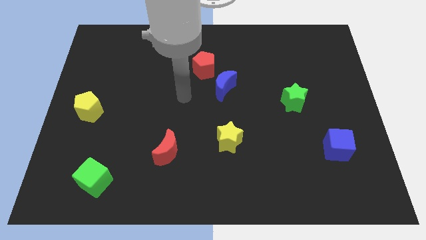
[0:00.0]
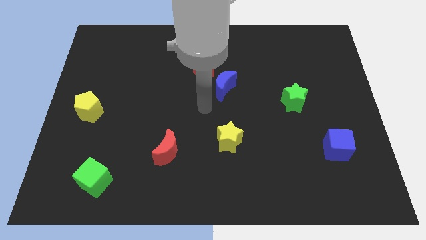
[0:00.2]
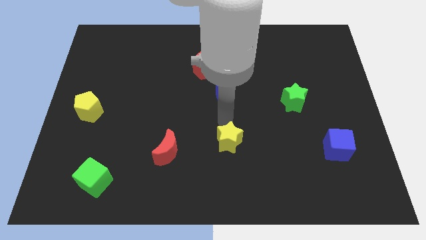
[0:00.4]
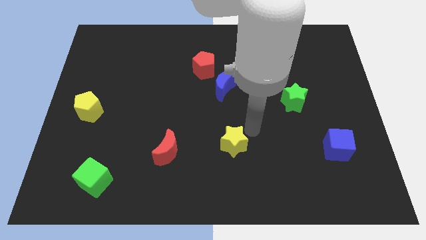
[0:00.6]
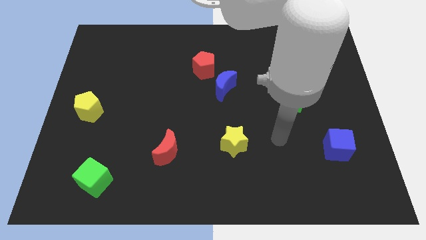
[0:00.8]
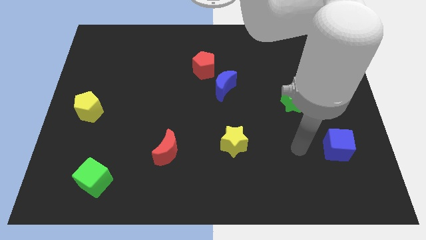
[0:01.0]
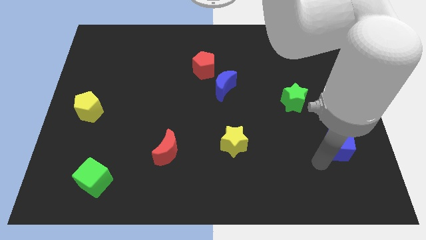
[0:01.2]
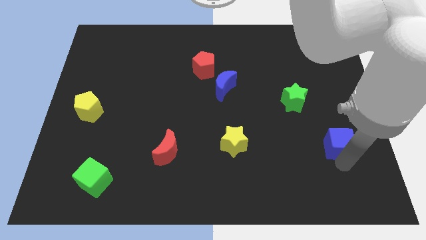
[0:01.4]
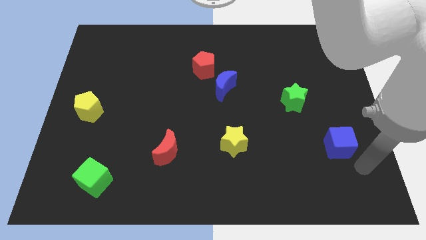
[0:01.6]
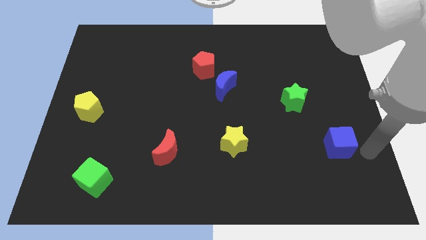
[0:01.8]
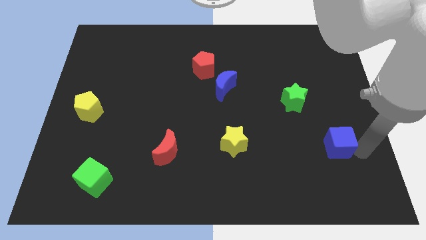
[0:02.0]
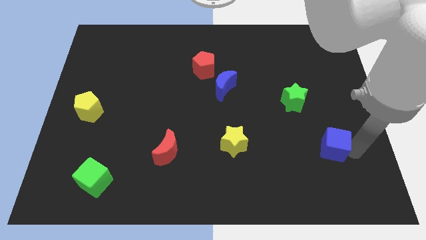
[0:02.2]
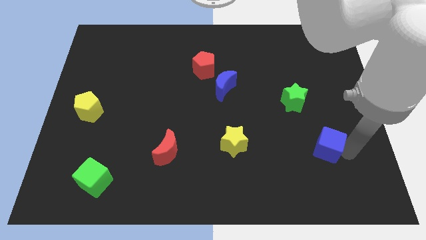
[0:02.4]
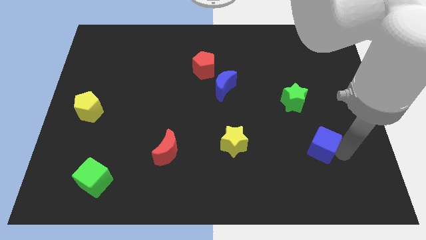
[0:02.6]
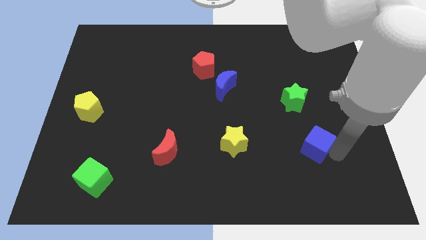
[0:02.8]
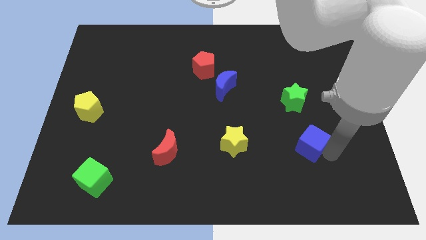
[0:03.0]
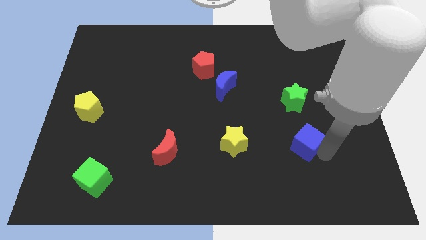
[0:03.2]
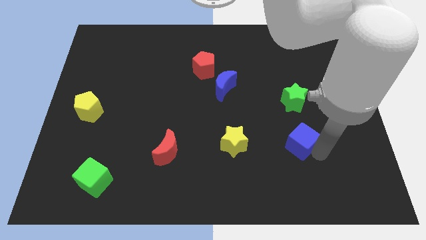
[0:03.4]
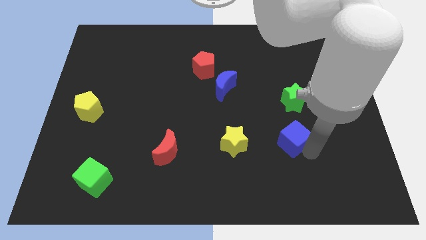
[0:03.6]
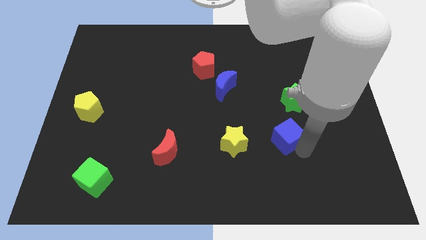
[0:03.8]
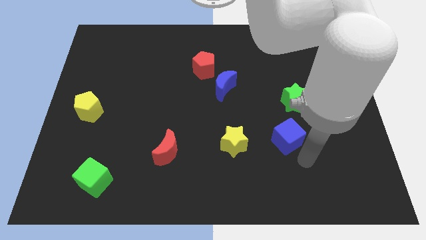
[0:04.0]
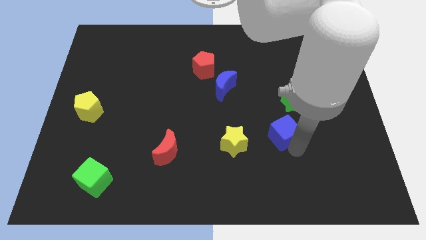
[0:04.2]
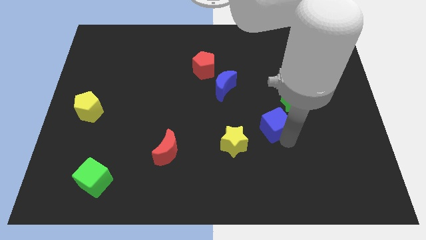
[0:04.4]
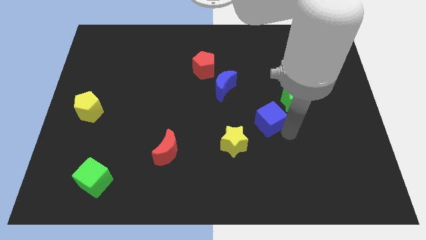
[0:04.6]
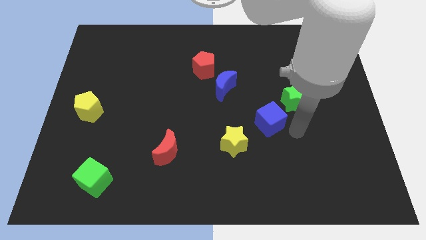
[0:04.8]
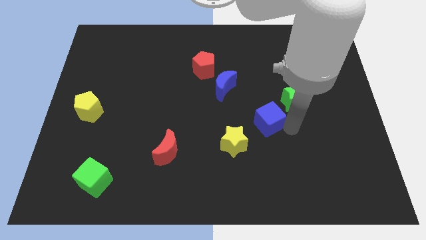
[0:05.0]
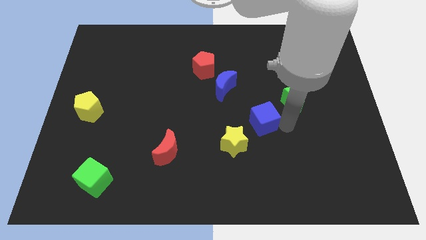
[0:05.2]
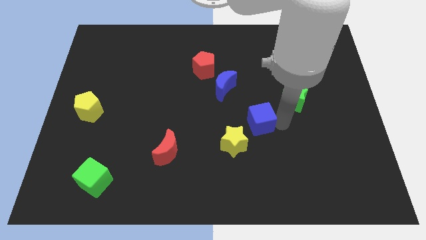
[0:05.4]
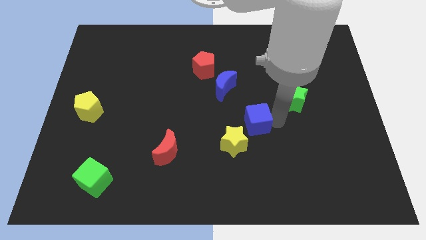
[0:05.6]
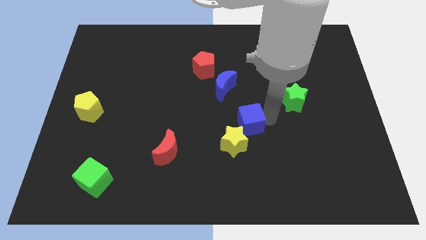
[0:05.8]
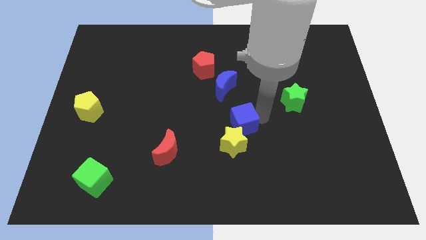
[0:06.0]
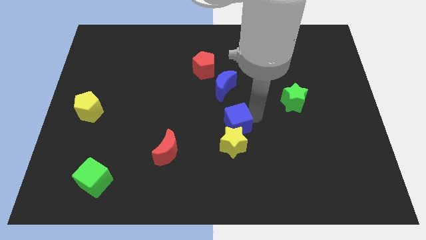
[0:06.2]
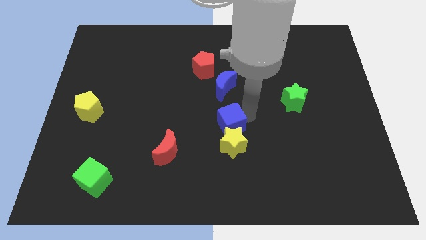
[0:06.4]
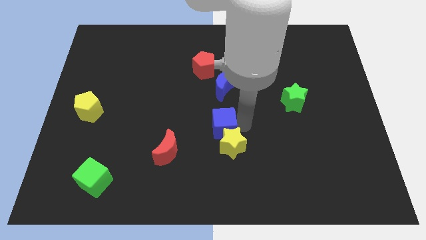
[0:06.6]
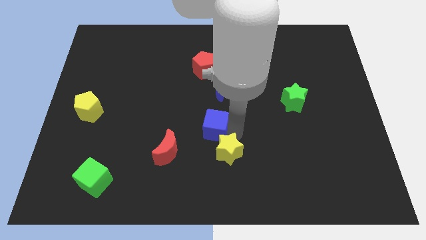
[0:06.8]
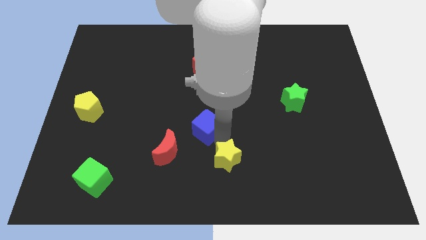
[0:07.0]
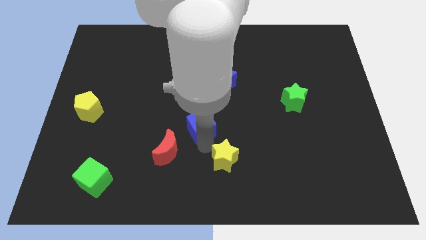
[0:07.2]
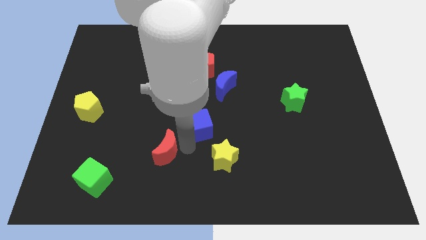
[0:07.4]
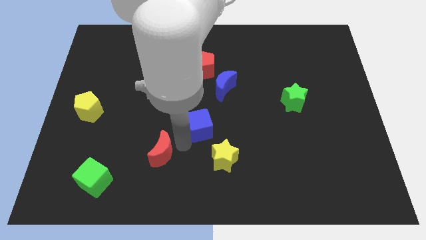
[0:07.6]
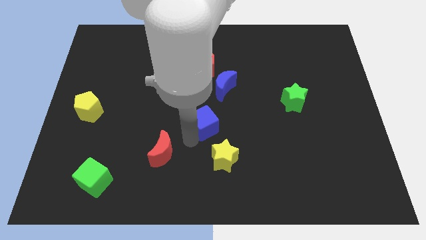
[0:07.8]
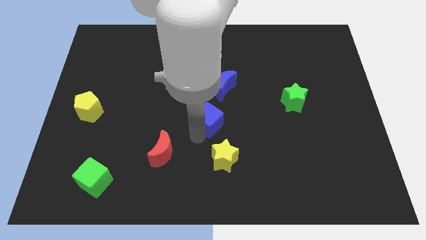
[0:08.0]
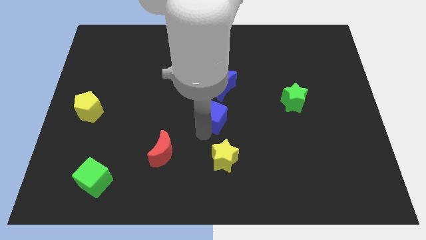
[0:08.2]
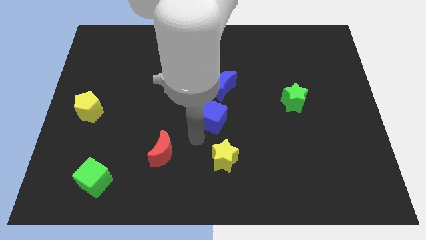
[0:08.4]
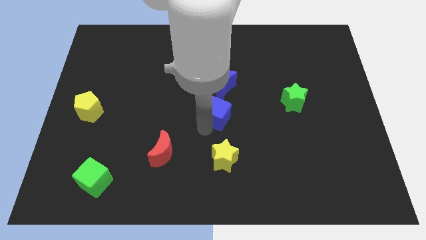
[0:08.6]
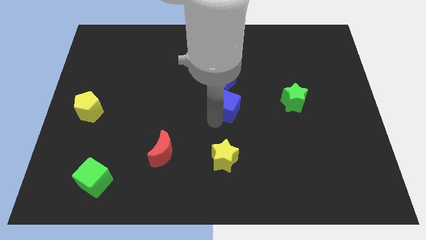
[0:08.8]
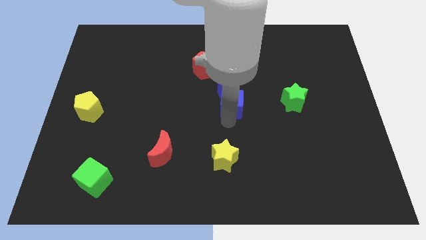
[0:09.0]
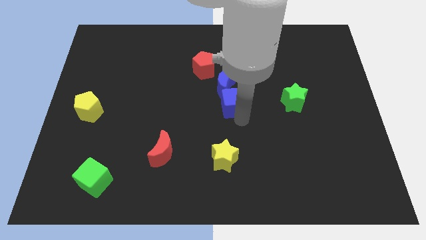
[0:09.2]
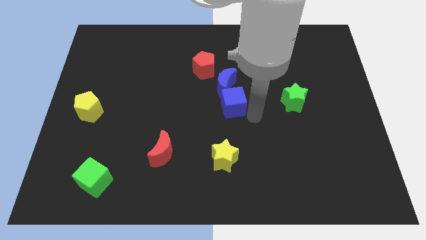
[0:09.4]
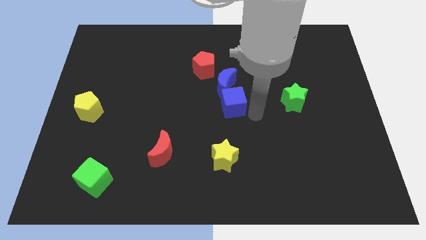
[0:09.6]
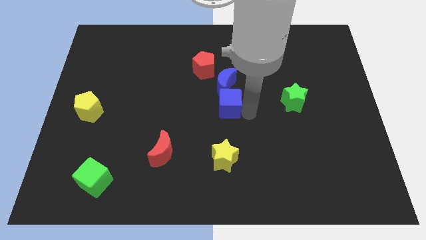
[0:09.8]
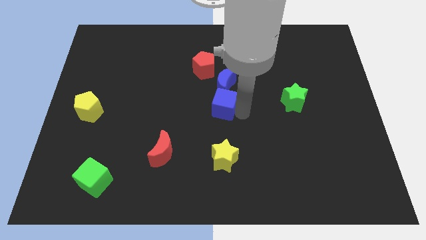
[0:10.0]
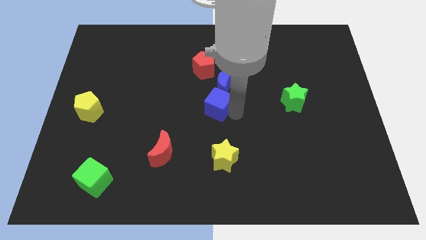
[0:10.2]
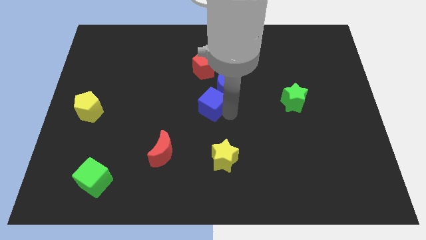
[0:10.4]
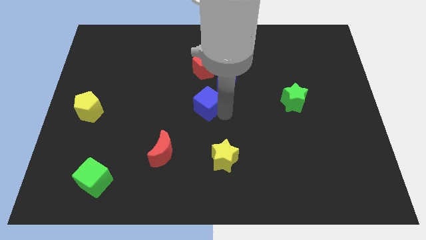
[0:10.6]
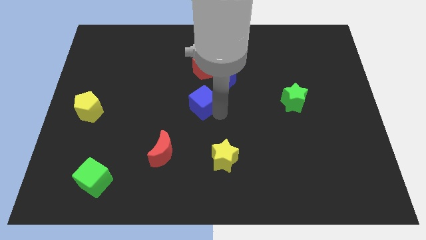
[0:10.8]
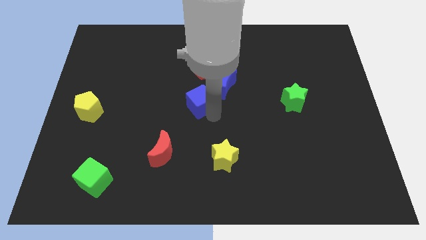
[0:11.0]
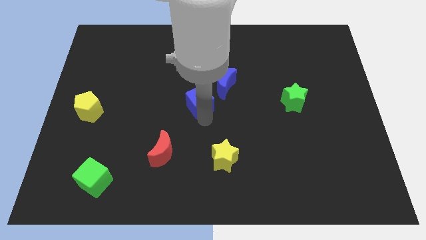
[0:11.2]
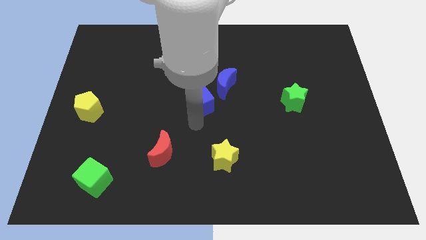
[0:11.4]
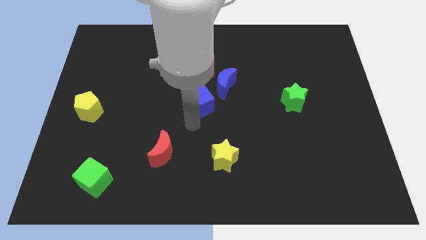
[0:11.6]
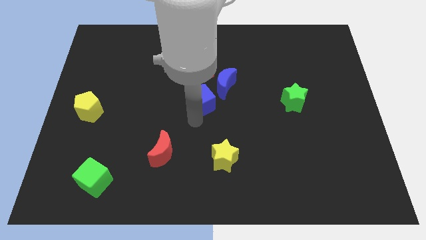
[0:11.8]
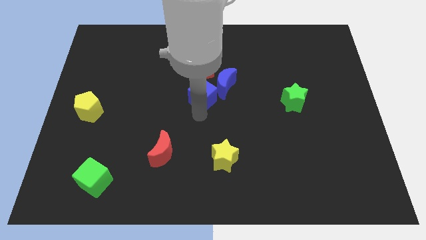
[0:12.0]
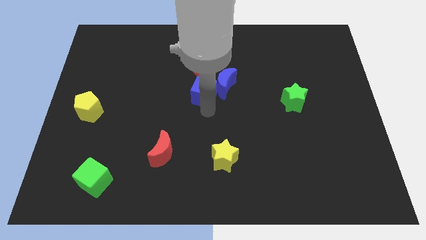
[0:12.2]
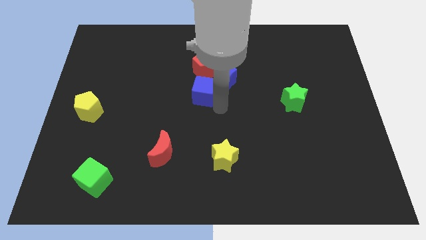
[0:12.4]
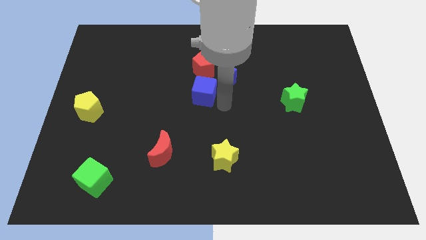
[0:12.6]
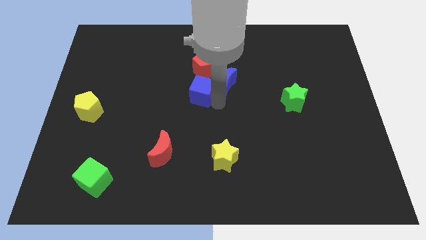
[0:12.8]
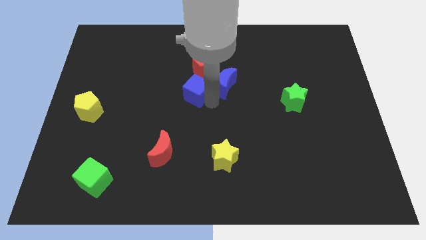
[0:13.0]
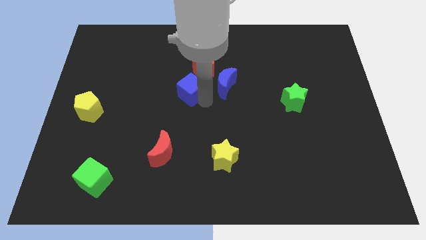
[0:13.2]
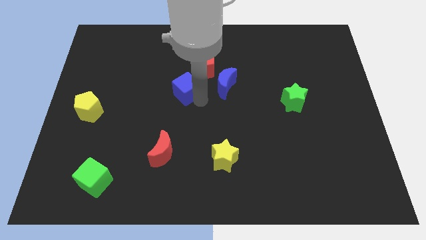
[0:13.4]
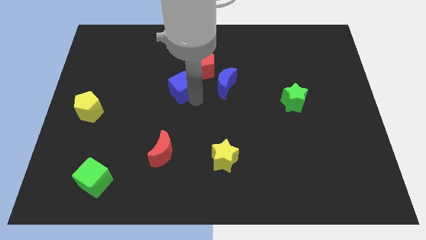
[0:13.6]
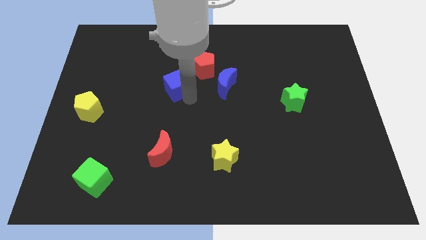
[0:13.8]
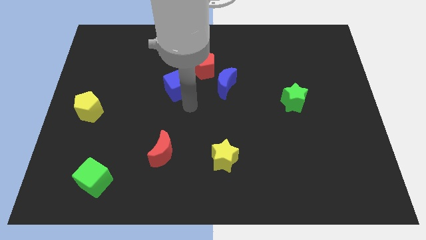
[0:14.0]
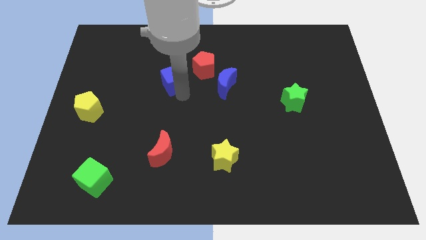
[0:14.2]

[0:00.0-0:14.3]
push the blue cube left of the red pentagon
